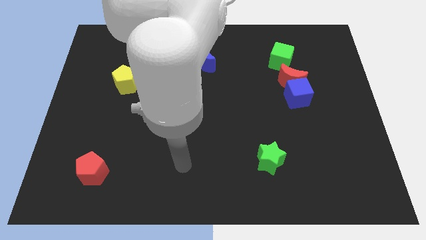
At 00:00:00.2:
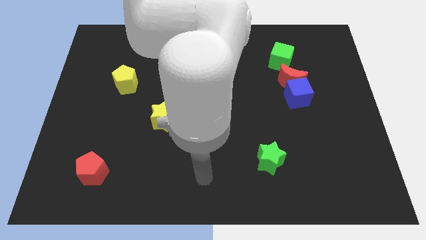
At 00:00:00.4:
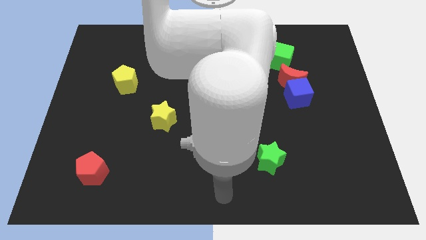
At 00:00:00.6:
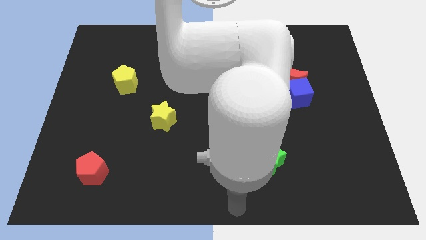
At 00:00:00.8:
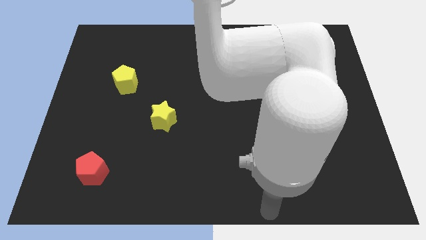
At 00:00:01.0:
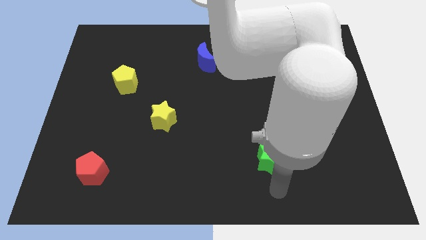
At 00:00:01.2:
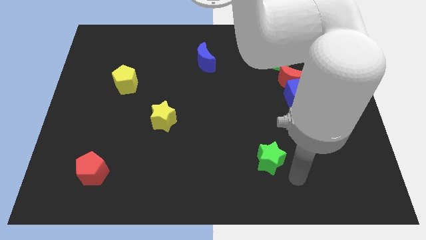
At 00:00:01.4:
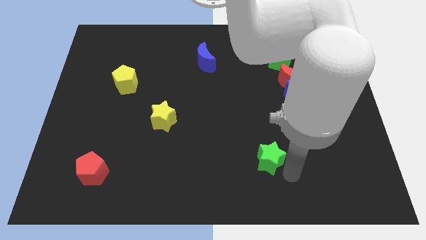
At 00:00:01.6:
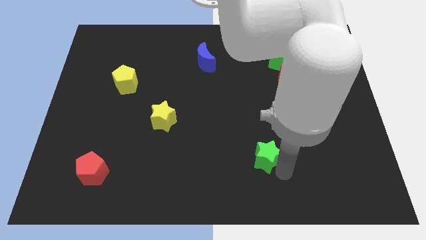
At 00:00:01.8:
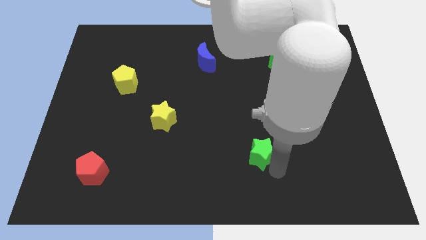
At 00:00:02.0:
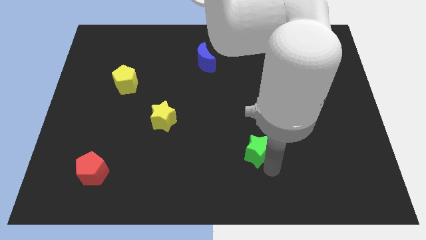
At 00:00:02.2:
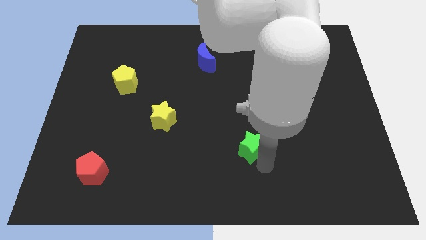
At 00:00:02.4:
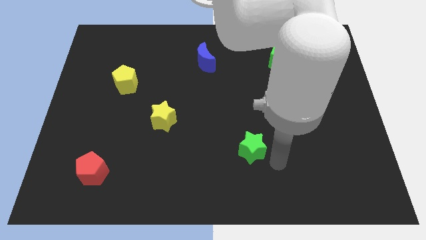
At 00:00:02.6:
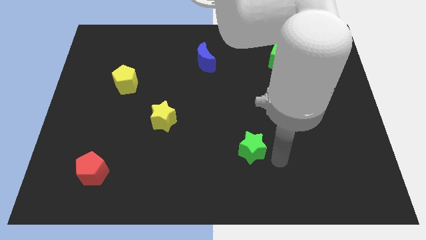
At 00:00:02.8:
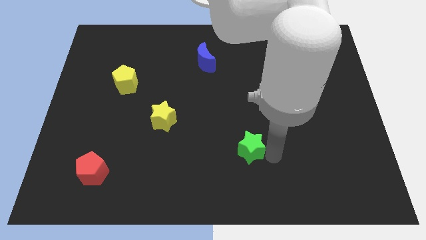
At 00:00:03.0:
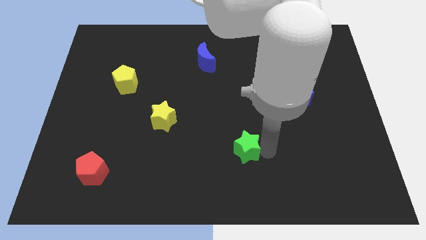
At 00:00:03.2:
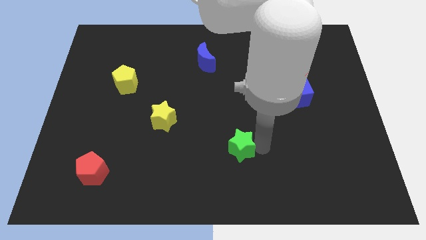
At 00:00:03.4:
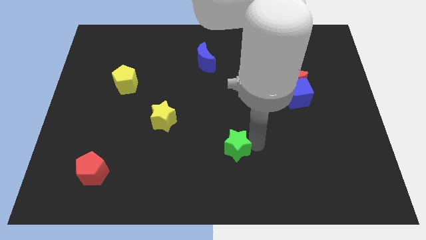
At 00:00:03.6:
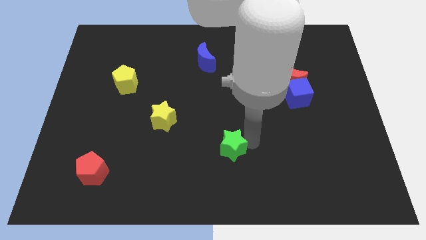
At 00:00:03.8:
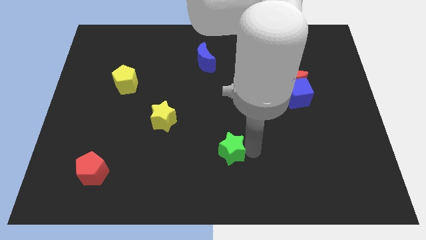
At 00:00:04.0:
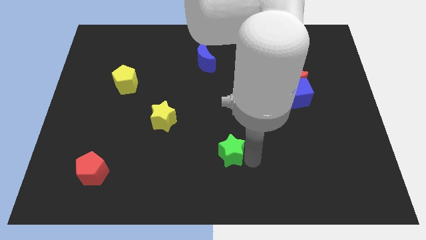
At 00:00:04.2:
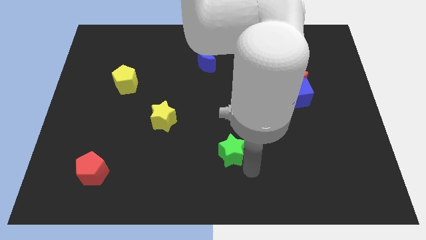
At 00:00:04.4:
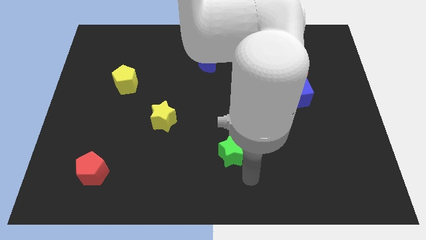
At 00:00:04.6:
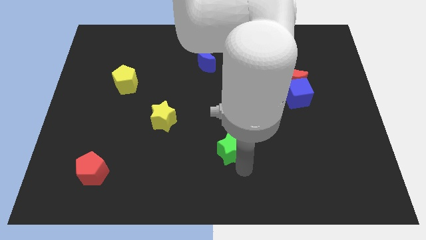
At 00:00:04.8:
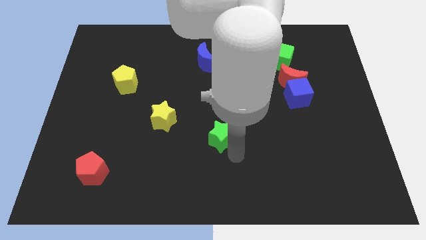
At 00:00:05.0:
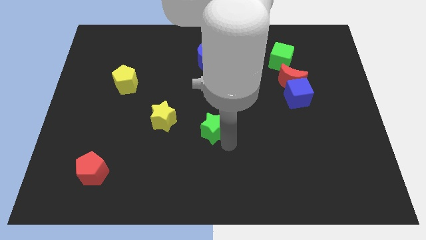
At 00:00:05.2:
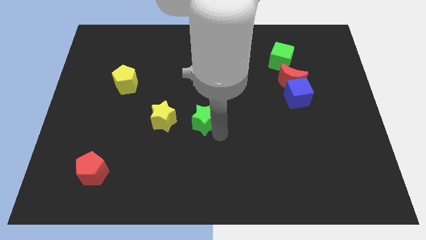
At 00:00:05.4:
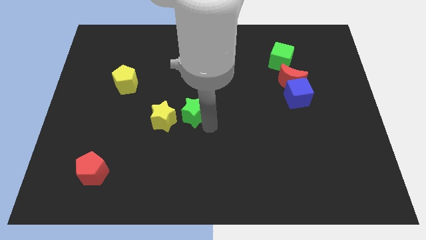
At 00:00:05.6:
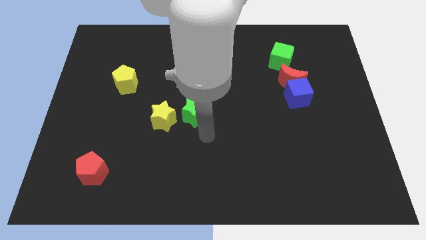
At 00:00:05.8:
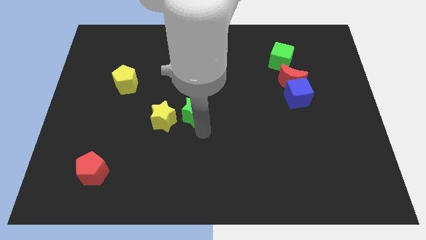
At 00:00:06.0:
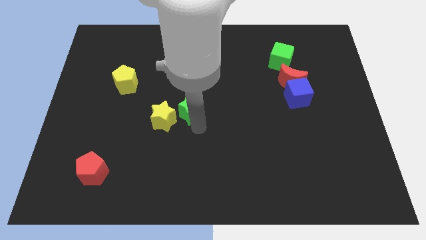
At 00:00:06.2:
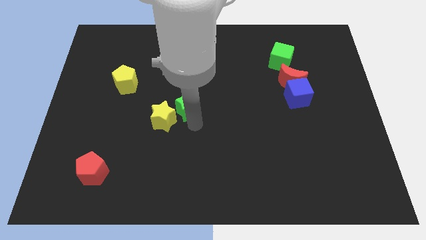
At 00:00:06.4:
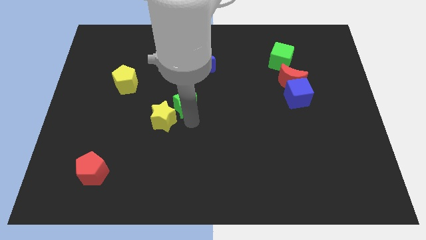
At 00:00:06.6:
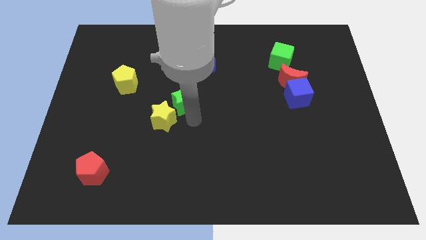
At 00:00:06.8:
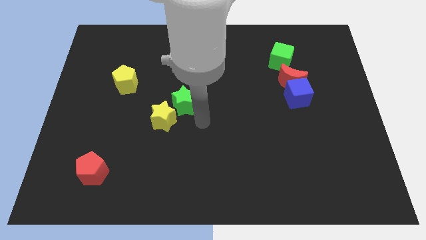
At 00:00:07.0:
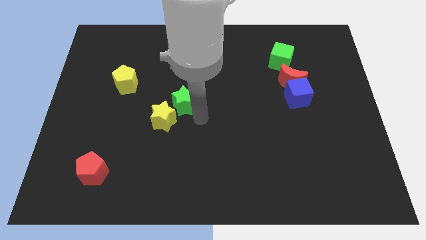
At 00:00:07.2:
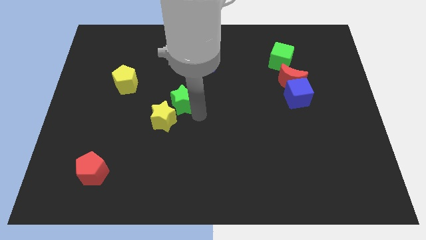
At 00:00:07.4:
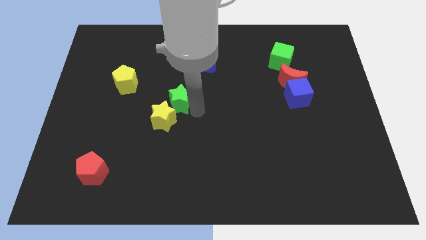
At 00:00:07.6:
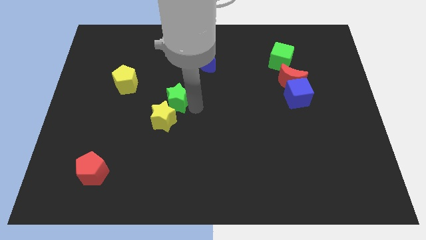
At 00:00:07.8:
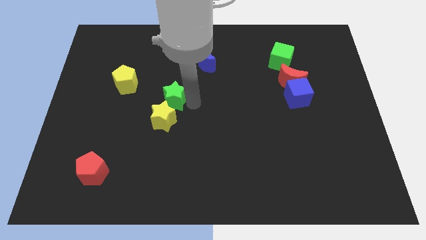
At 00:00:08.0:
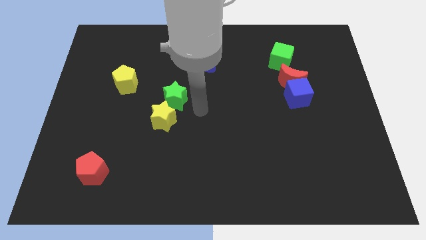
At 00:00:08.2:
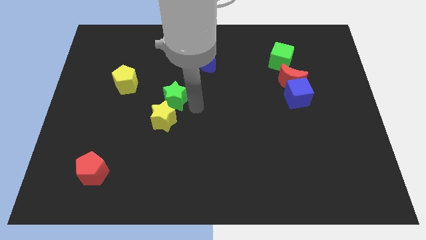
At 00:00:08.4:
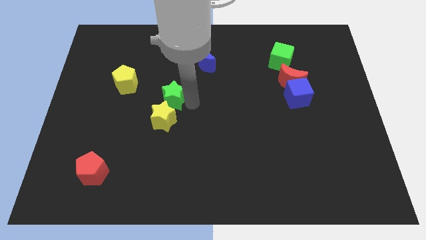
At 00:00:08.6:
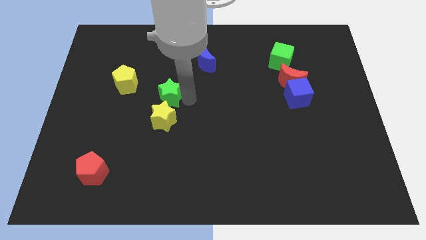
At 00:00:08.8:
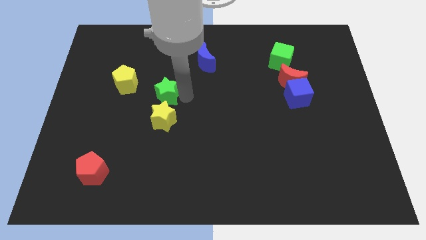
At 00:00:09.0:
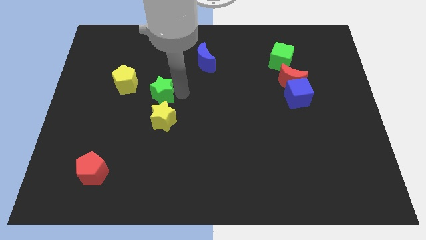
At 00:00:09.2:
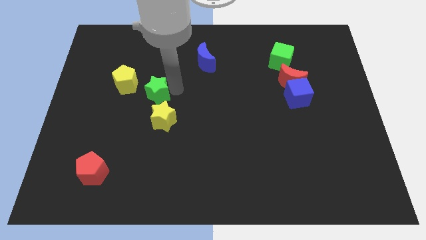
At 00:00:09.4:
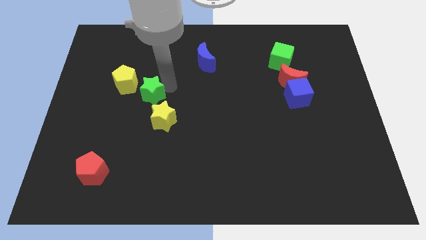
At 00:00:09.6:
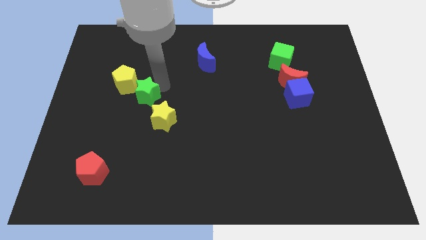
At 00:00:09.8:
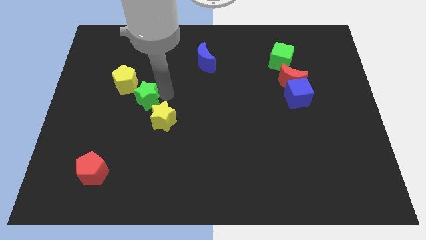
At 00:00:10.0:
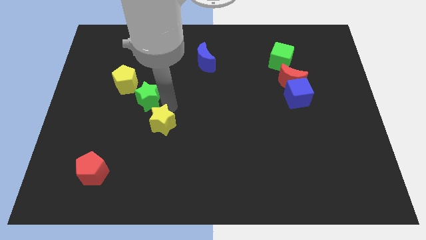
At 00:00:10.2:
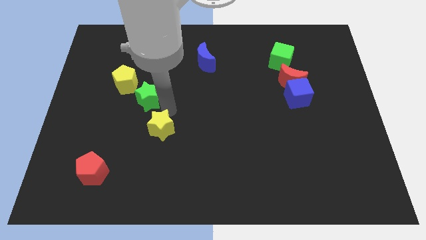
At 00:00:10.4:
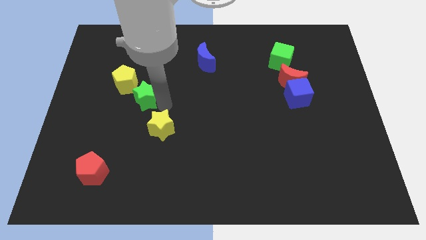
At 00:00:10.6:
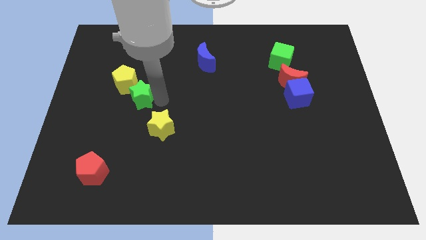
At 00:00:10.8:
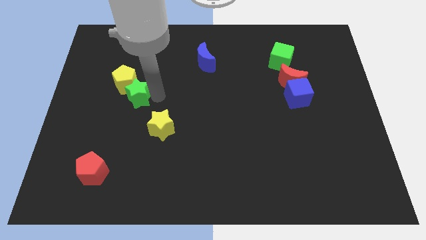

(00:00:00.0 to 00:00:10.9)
put the green star close to the yellow pentagon

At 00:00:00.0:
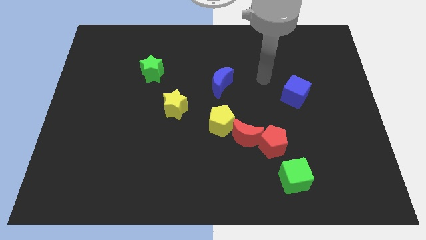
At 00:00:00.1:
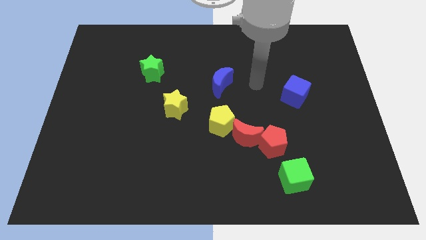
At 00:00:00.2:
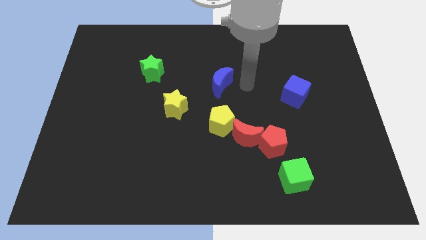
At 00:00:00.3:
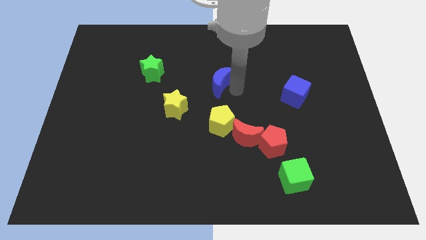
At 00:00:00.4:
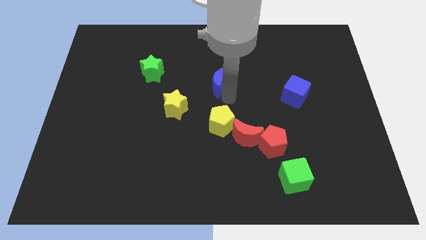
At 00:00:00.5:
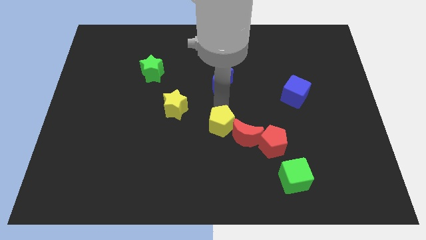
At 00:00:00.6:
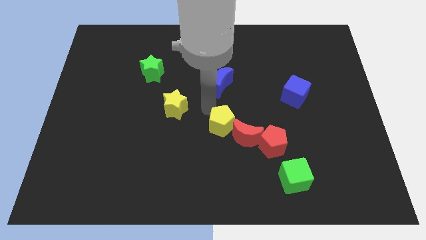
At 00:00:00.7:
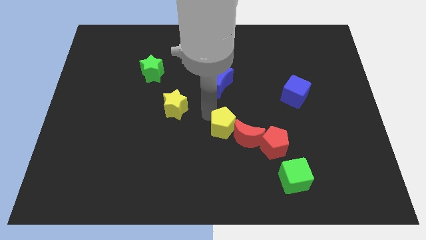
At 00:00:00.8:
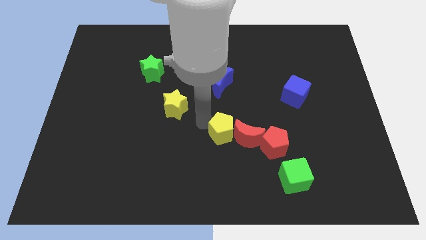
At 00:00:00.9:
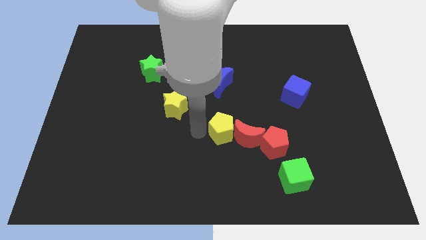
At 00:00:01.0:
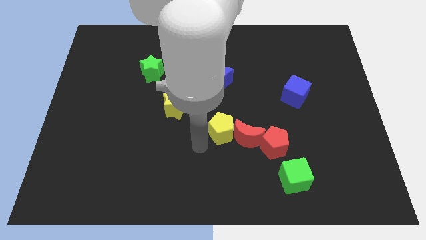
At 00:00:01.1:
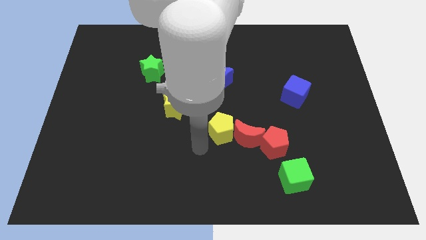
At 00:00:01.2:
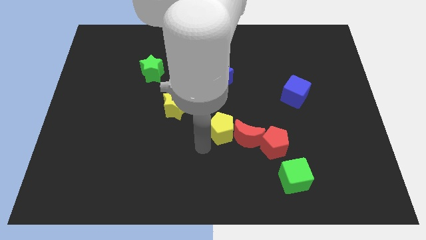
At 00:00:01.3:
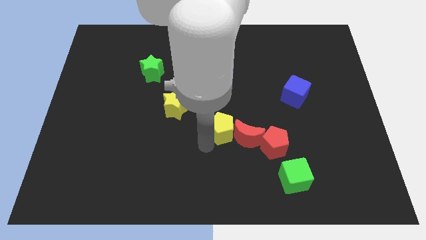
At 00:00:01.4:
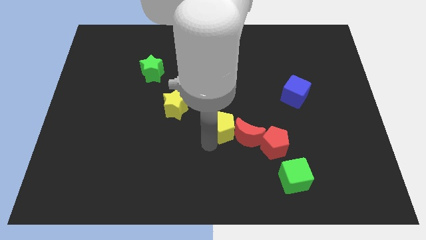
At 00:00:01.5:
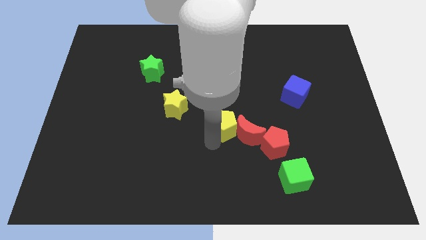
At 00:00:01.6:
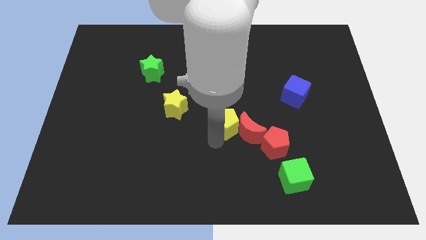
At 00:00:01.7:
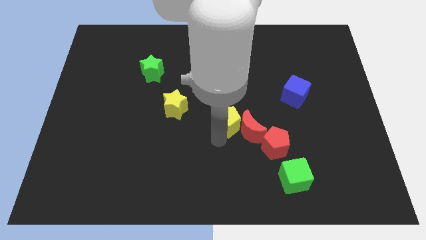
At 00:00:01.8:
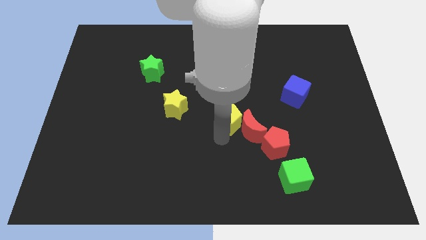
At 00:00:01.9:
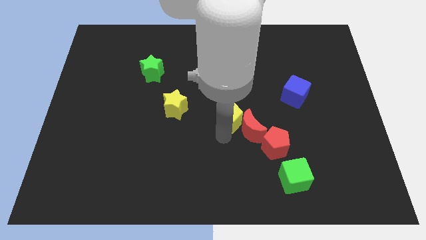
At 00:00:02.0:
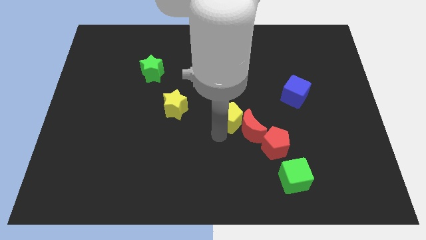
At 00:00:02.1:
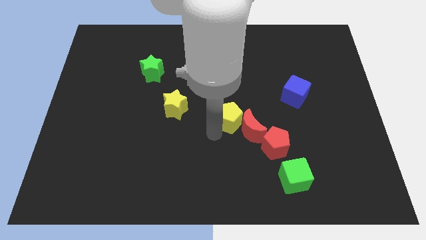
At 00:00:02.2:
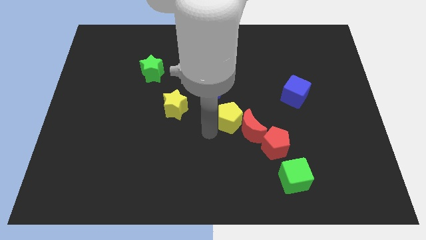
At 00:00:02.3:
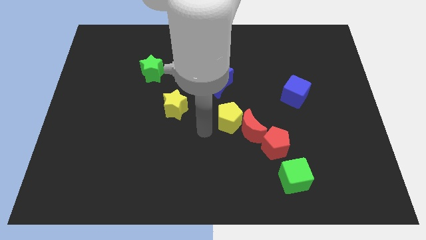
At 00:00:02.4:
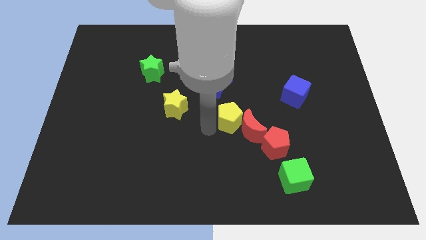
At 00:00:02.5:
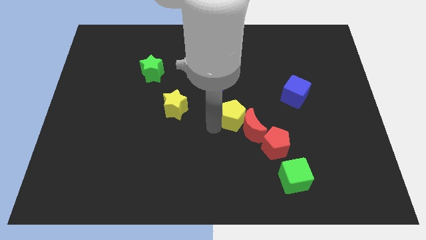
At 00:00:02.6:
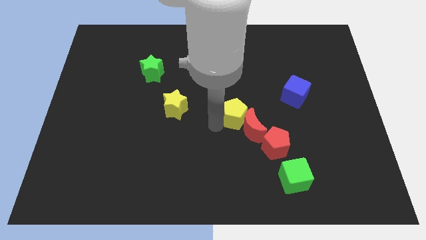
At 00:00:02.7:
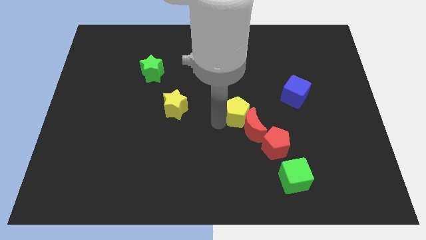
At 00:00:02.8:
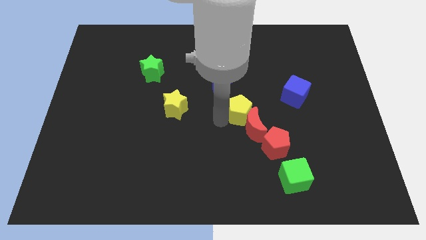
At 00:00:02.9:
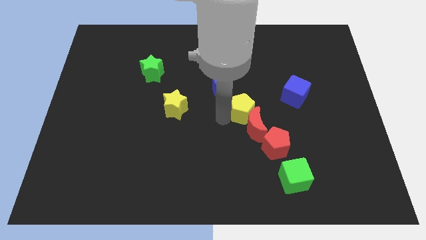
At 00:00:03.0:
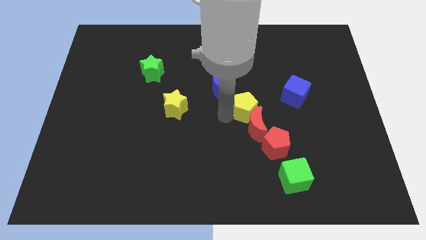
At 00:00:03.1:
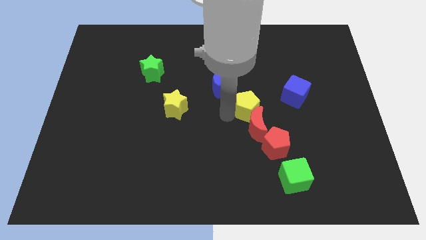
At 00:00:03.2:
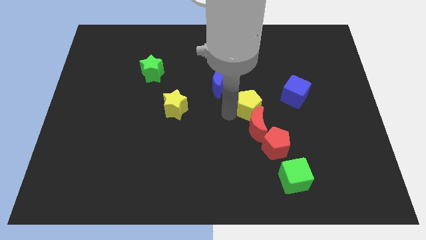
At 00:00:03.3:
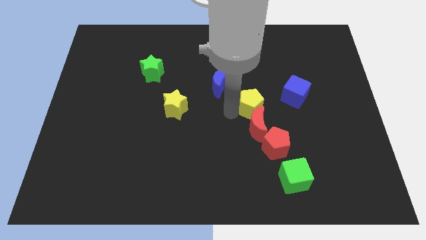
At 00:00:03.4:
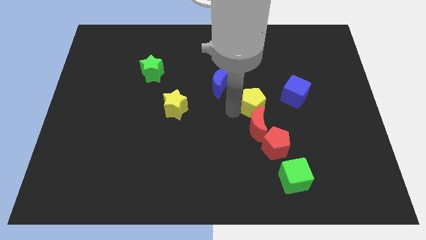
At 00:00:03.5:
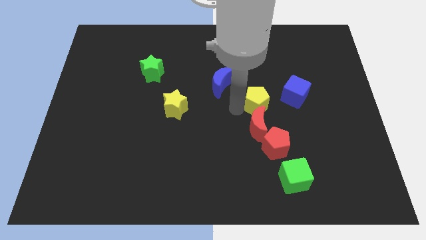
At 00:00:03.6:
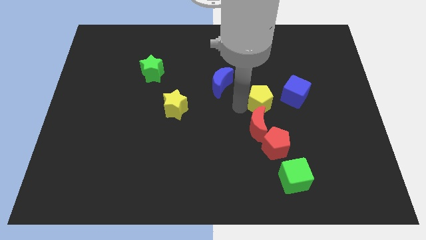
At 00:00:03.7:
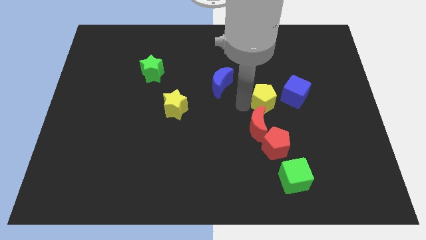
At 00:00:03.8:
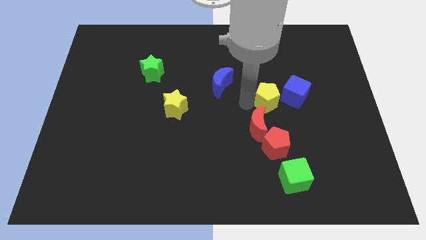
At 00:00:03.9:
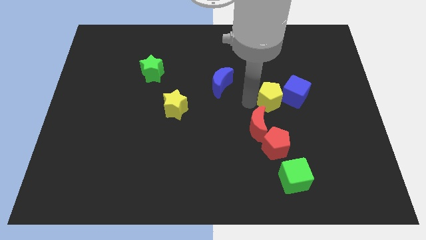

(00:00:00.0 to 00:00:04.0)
put the yellow pentagon next to the blue cube
